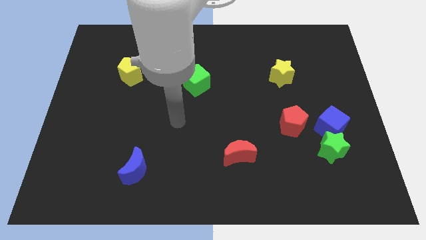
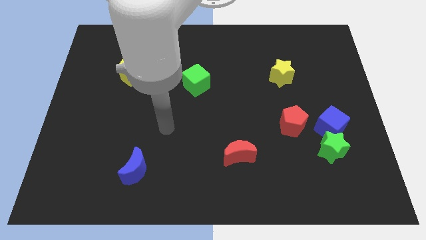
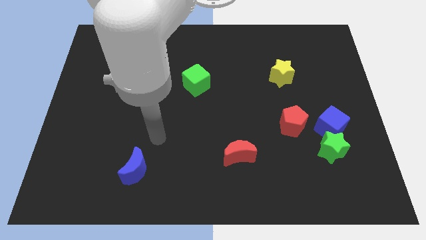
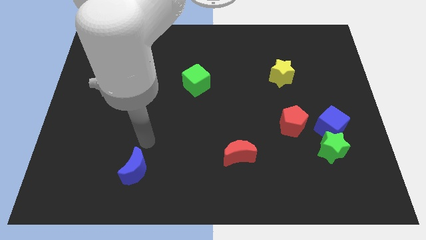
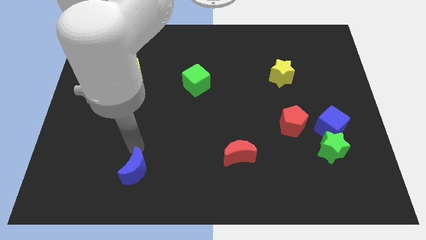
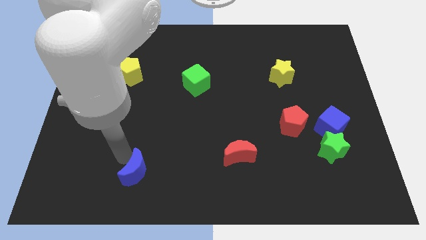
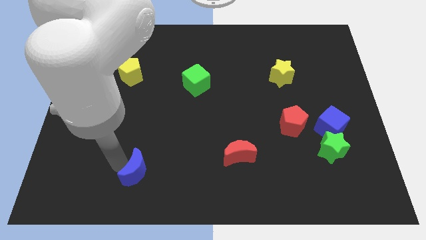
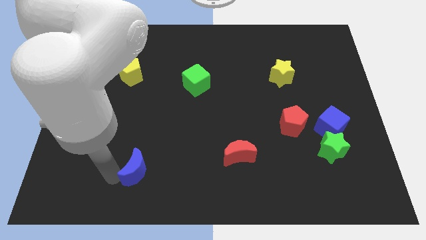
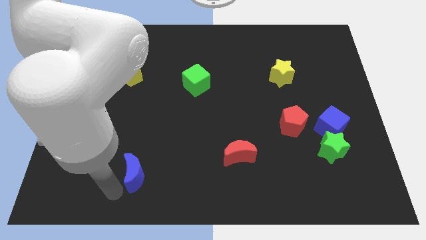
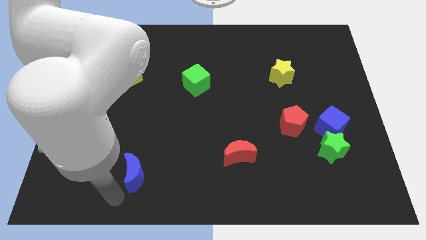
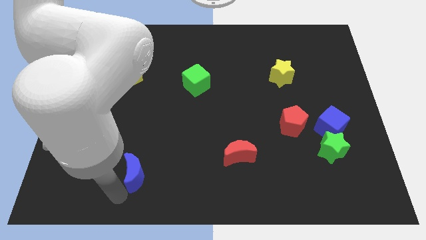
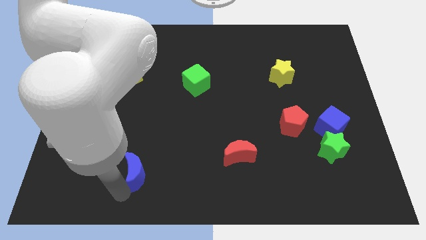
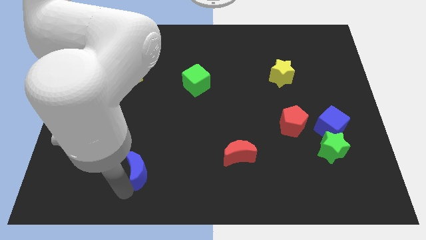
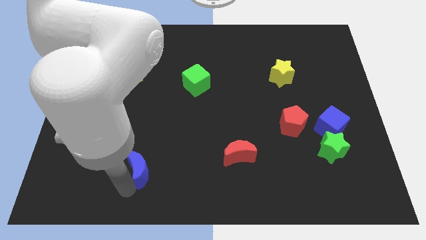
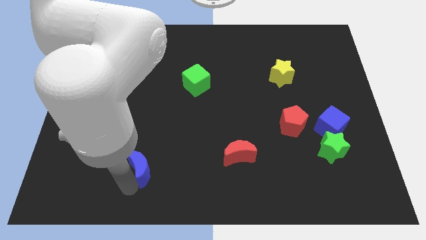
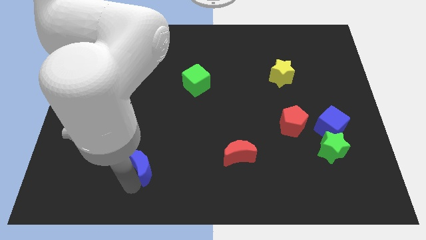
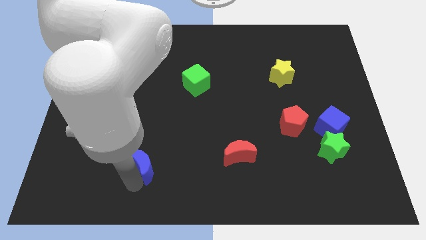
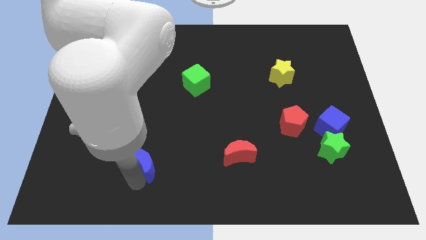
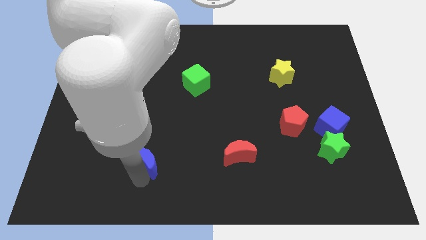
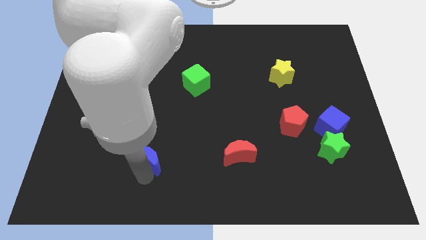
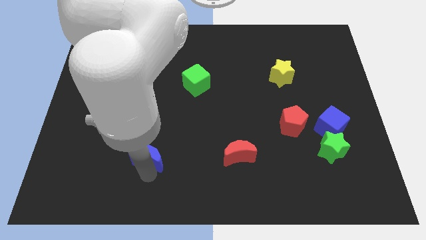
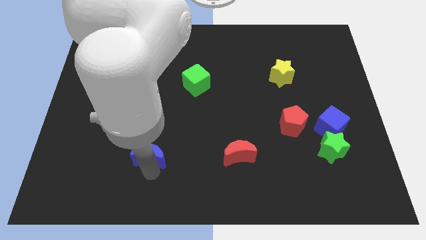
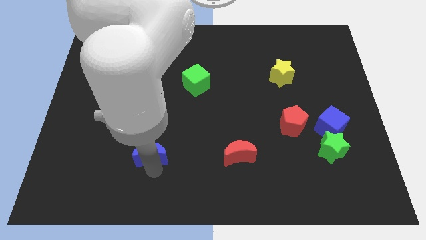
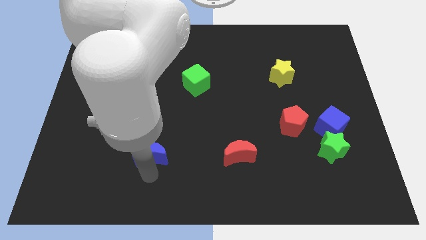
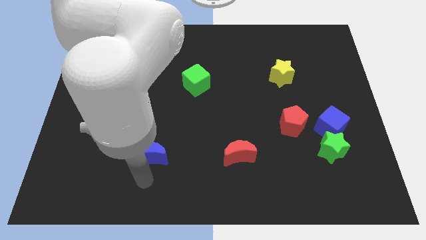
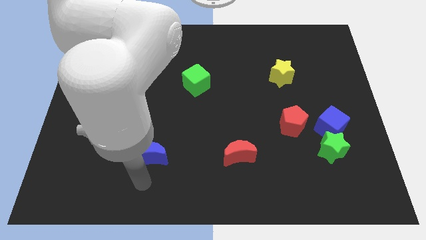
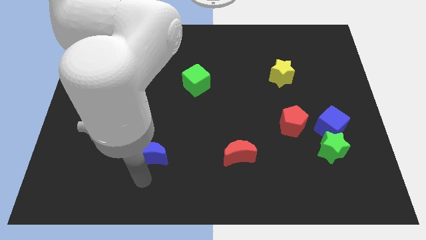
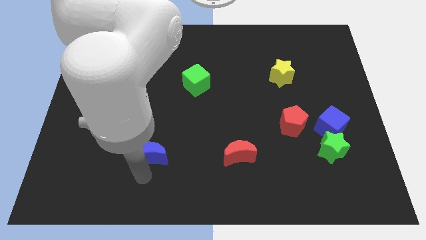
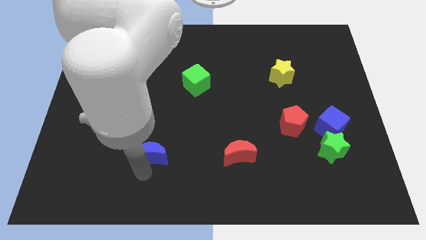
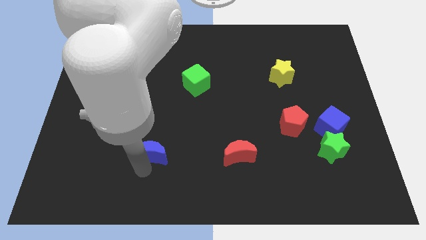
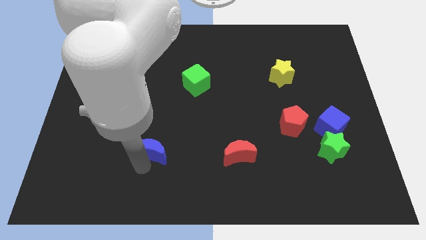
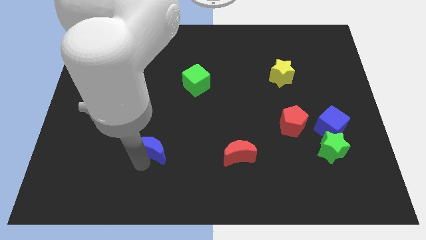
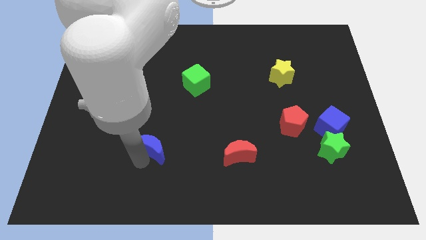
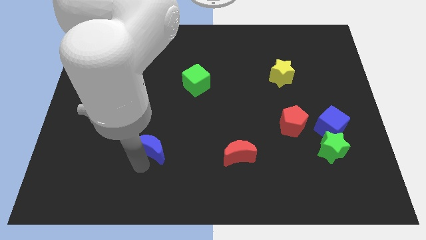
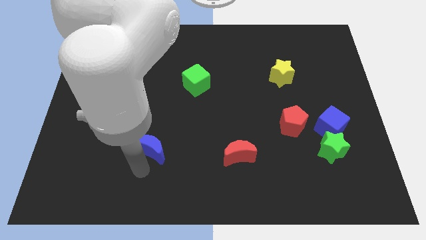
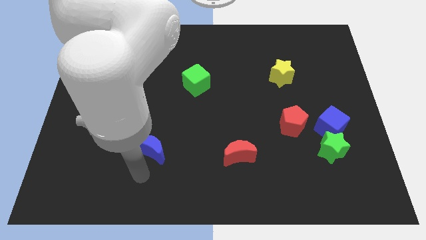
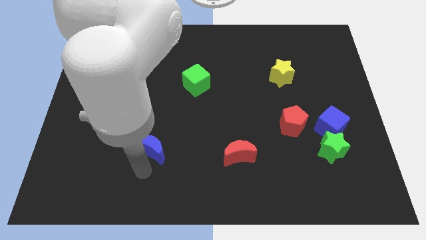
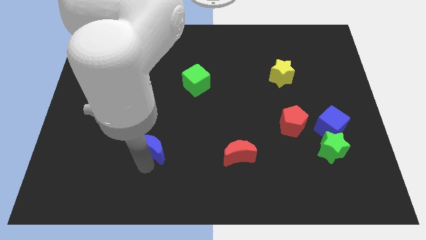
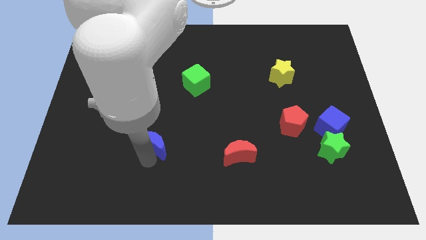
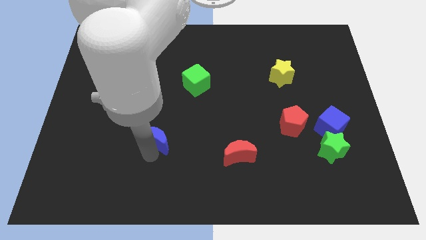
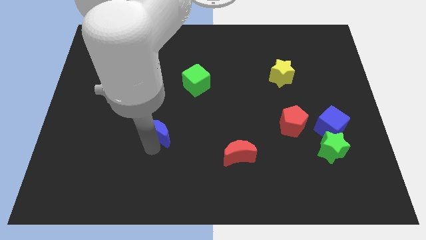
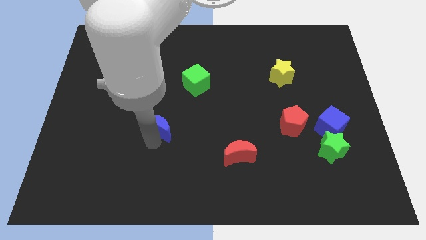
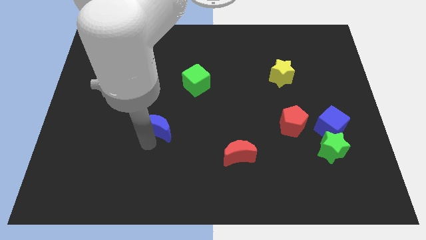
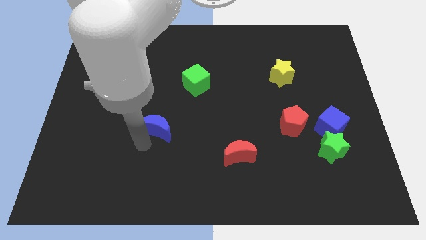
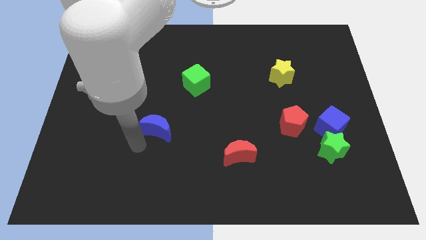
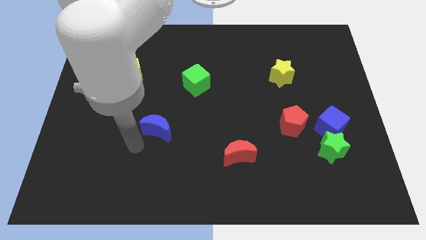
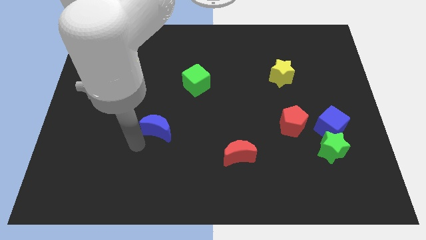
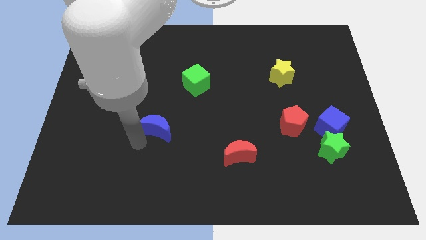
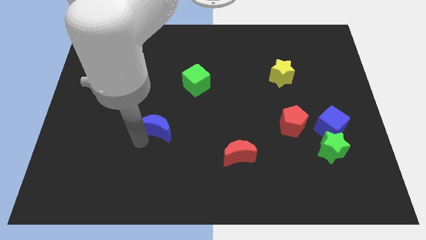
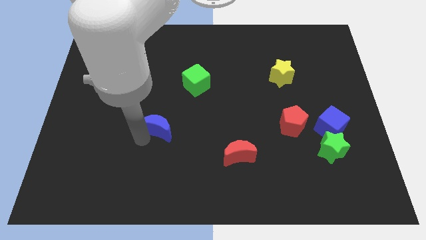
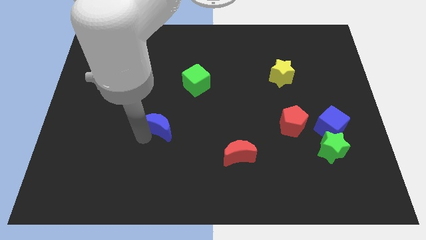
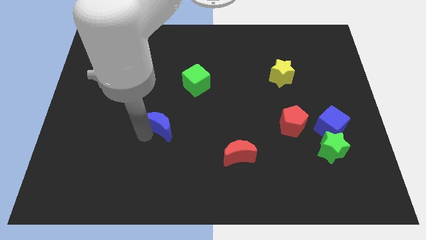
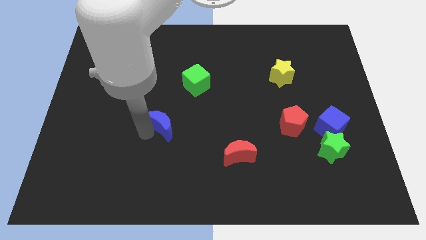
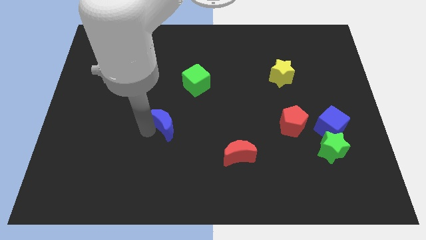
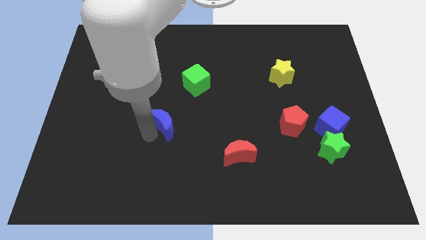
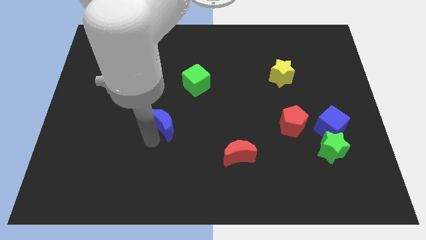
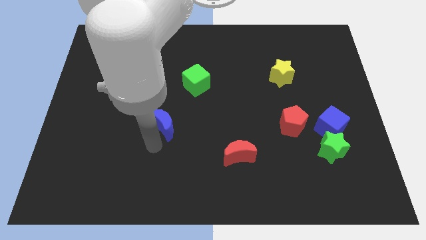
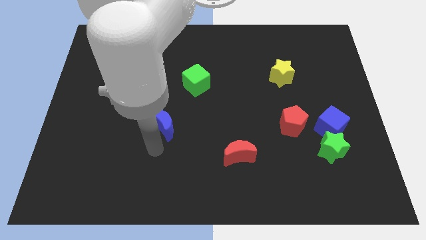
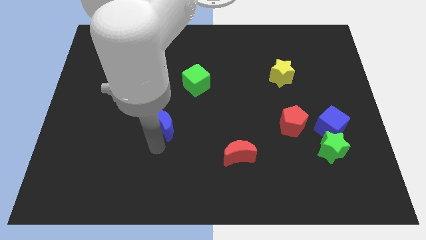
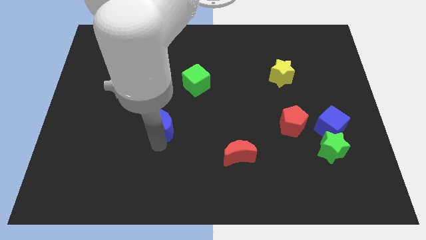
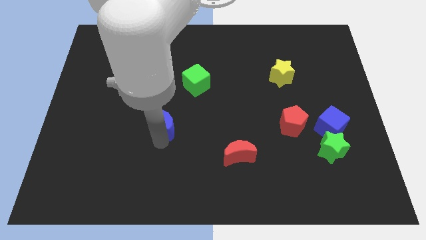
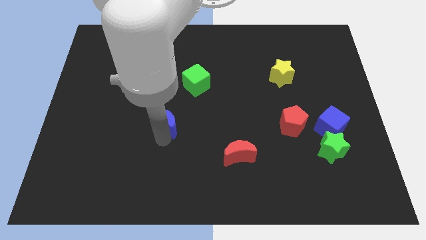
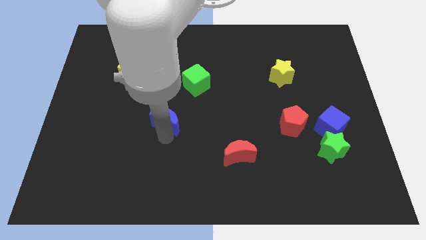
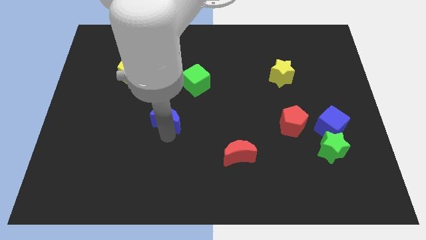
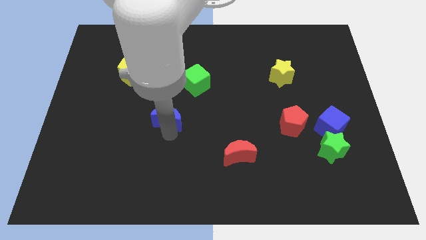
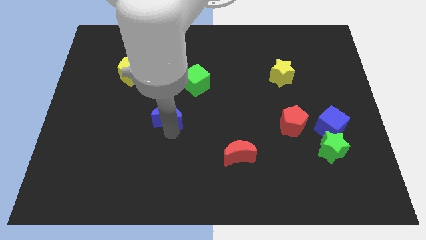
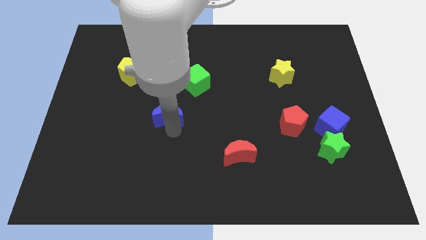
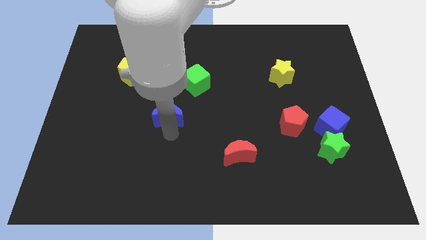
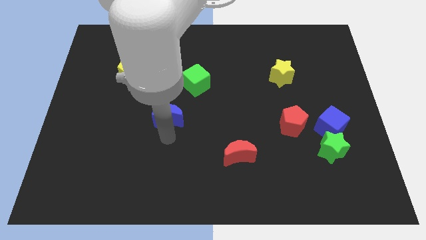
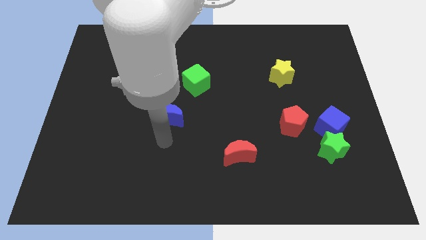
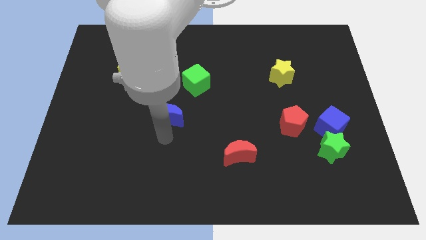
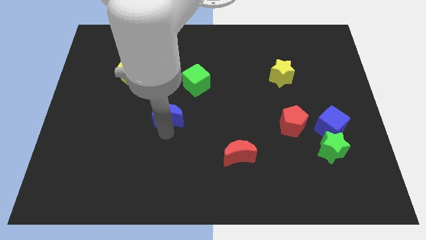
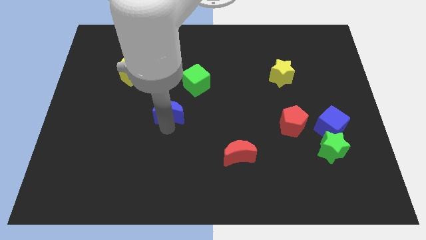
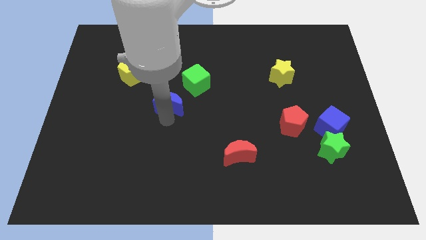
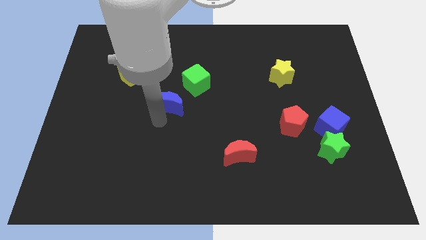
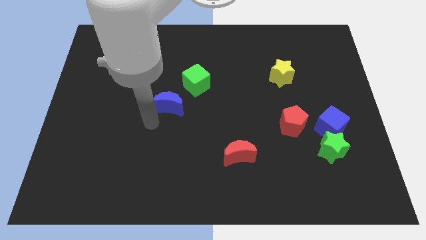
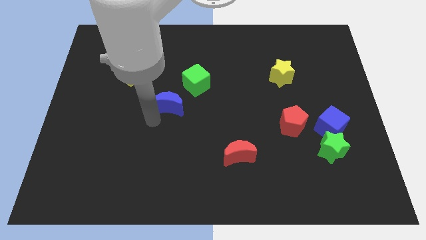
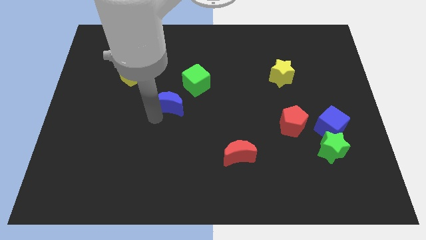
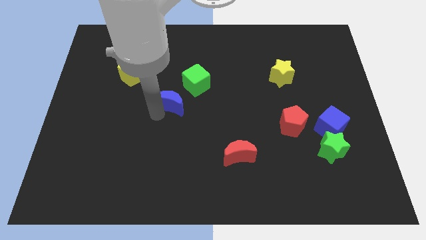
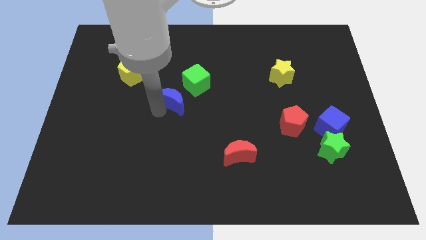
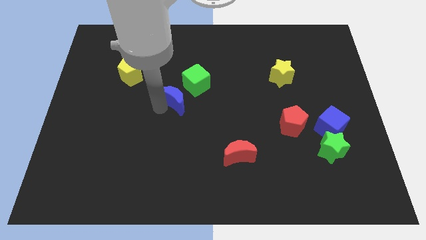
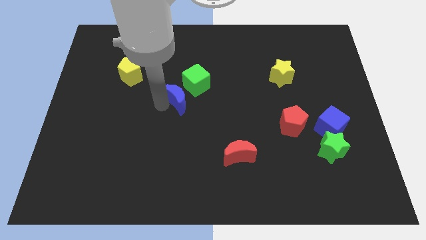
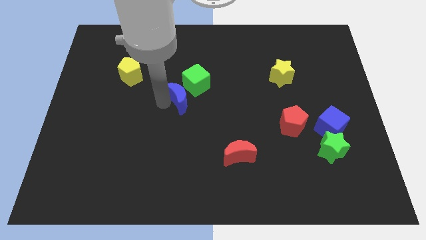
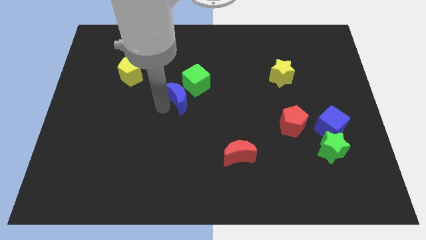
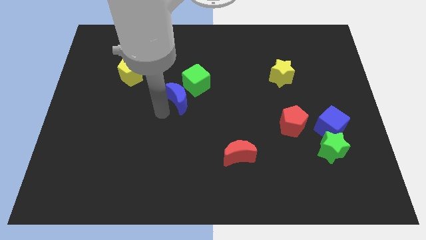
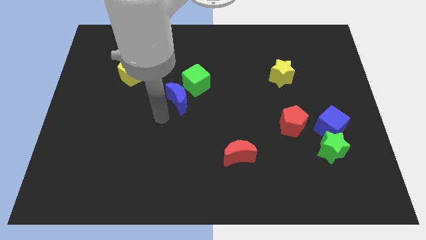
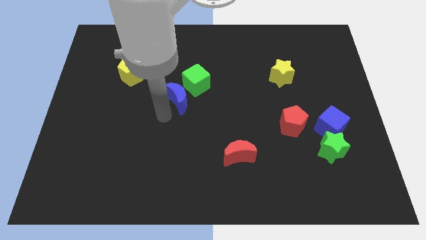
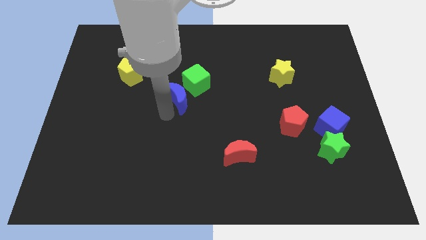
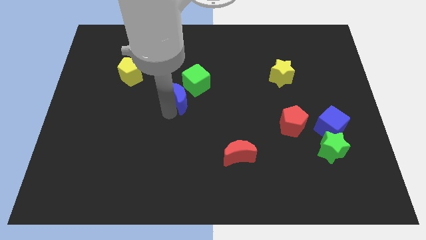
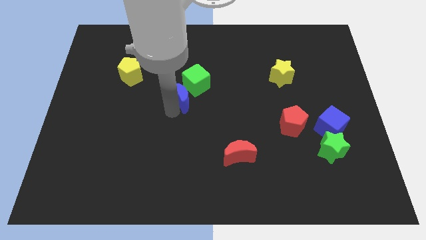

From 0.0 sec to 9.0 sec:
push the blue moon to the green cube
